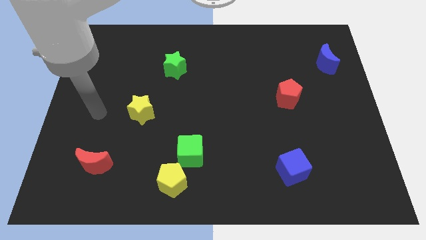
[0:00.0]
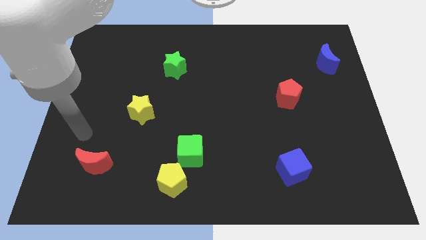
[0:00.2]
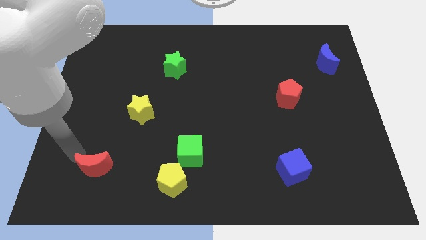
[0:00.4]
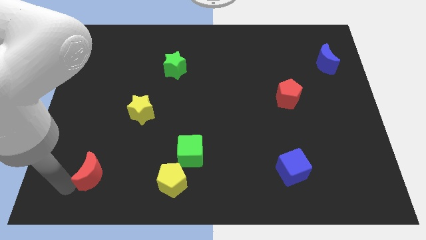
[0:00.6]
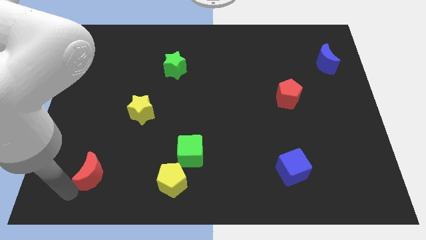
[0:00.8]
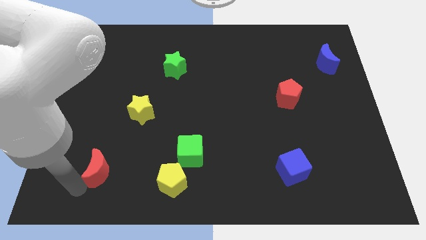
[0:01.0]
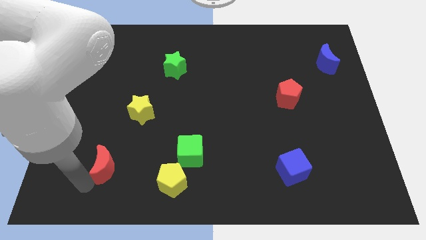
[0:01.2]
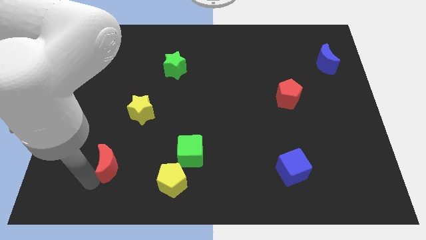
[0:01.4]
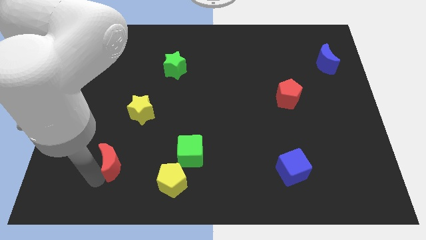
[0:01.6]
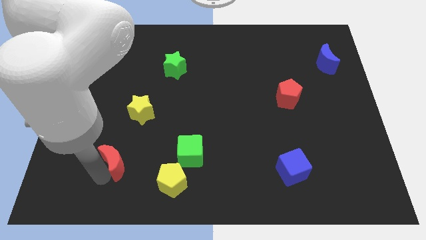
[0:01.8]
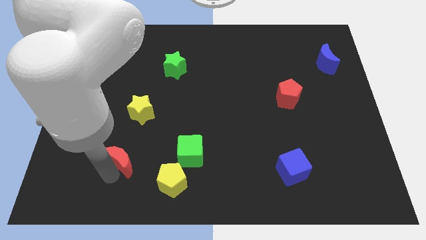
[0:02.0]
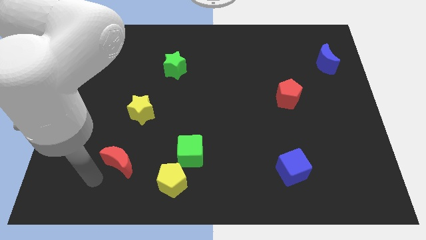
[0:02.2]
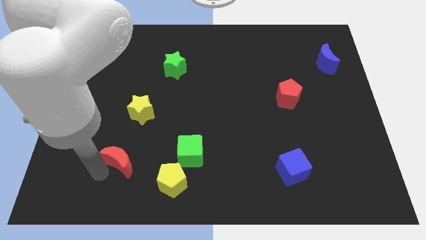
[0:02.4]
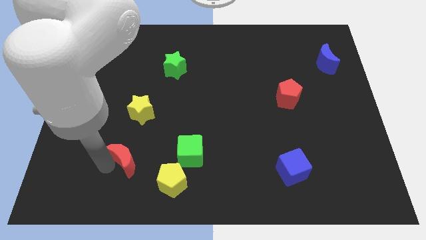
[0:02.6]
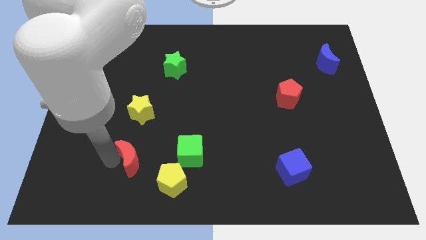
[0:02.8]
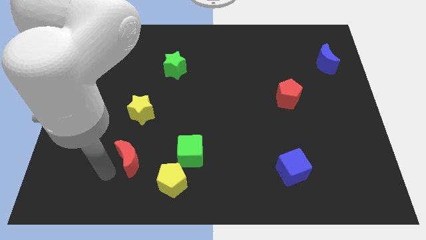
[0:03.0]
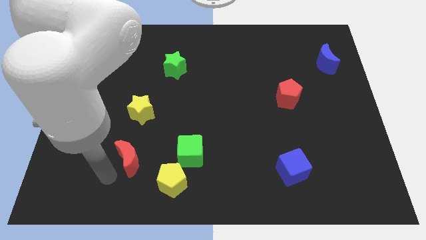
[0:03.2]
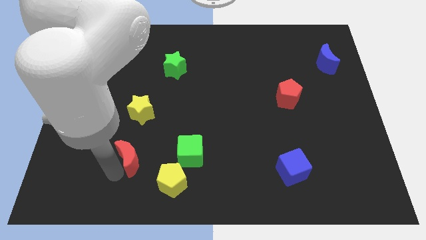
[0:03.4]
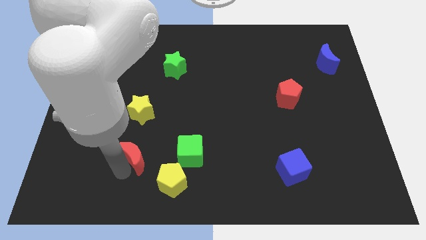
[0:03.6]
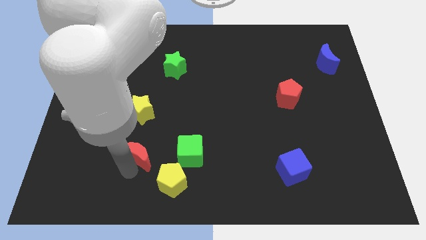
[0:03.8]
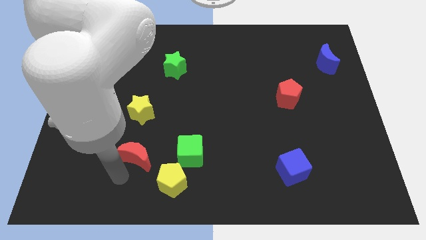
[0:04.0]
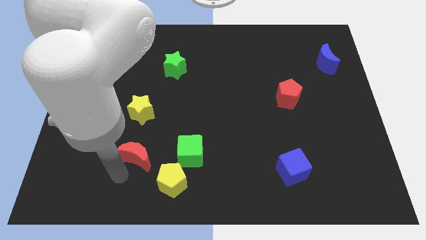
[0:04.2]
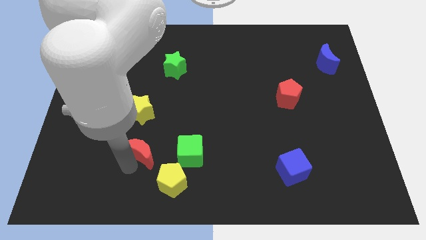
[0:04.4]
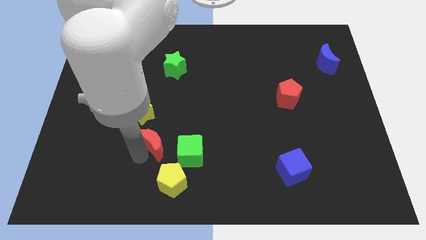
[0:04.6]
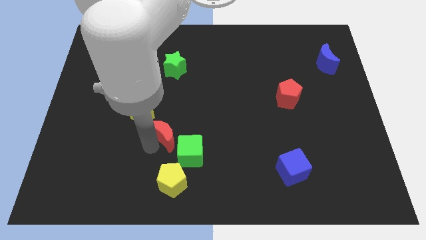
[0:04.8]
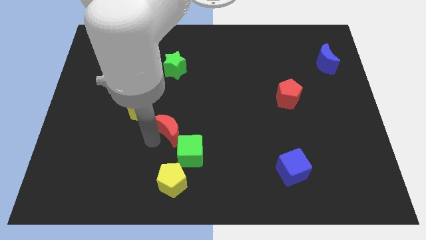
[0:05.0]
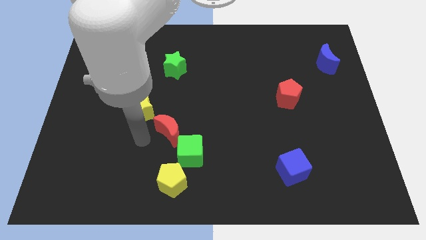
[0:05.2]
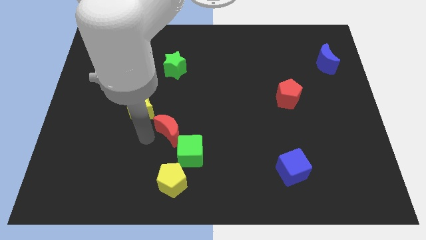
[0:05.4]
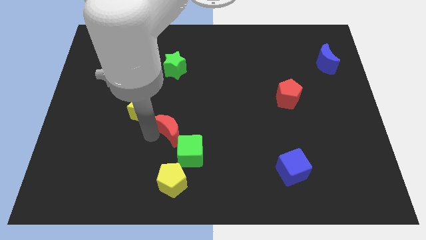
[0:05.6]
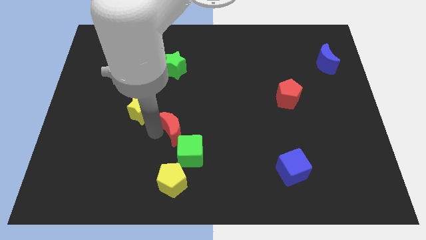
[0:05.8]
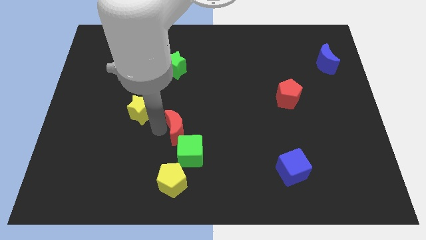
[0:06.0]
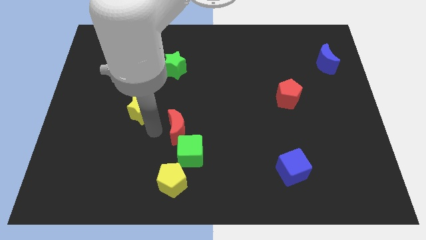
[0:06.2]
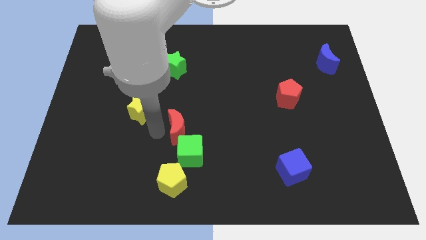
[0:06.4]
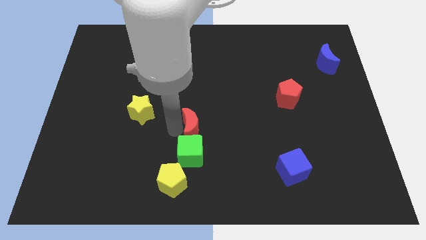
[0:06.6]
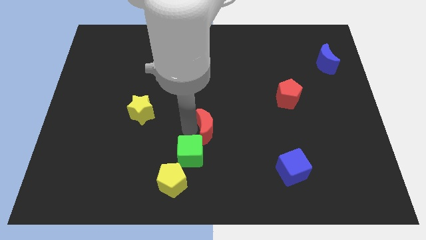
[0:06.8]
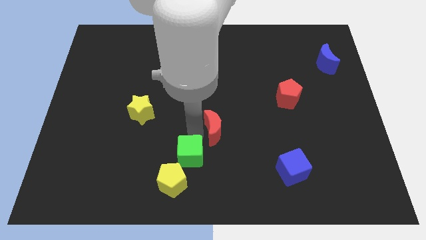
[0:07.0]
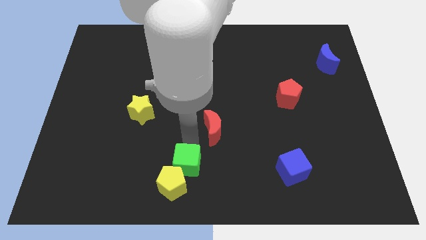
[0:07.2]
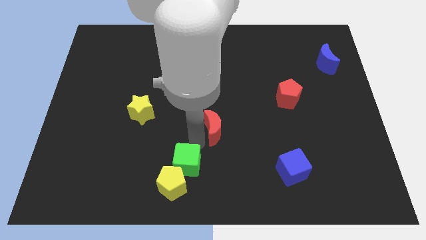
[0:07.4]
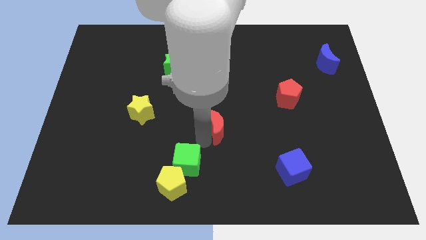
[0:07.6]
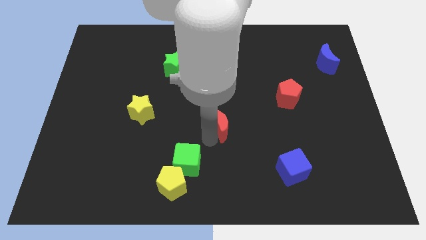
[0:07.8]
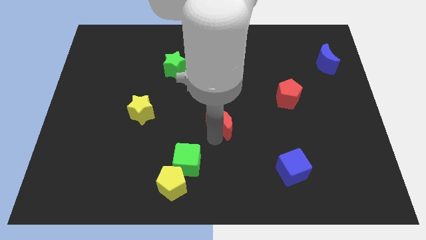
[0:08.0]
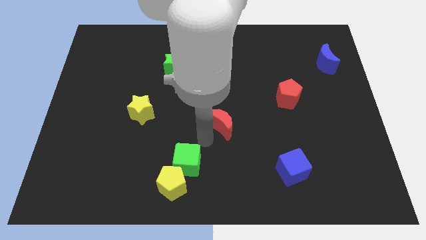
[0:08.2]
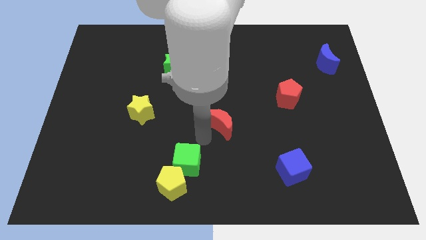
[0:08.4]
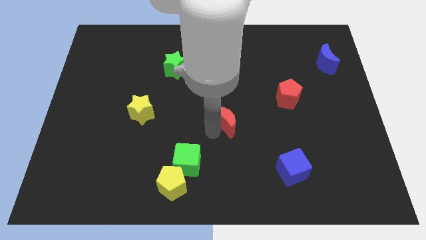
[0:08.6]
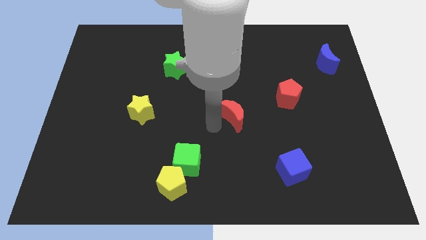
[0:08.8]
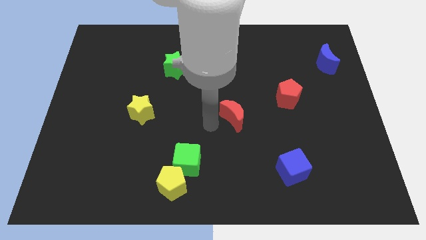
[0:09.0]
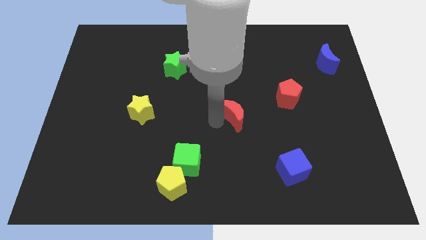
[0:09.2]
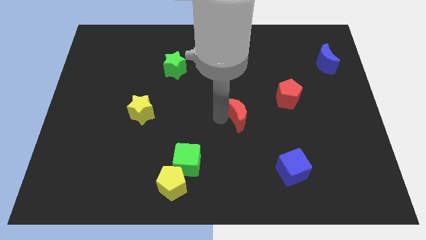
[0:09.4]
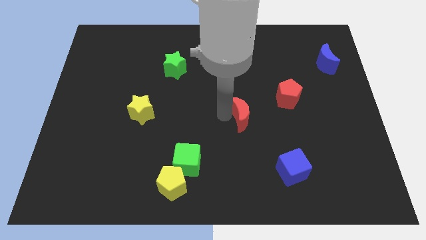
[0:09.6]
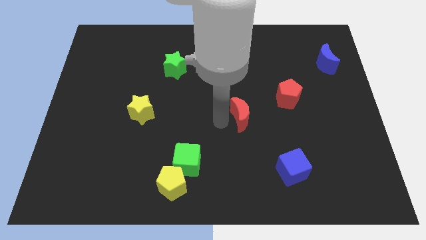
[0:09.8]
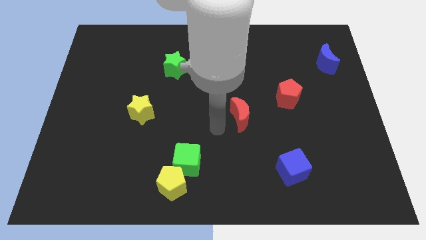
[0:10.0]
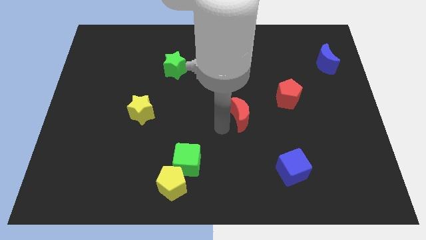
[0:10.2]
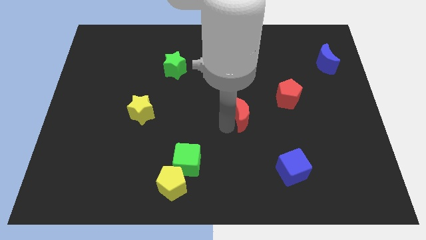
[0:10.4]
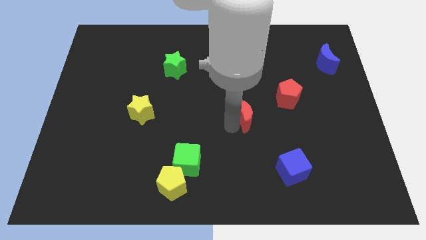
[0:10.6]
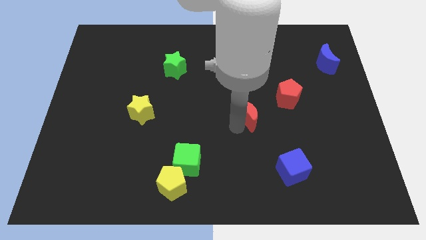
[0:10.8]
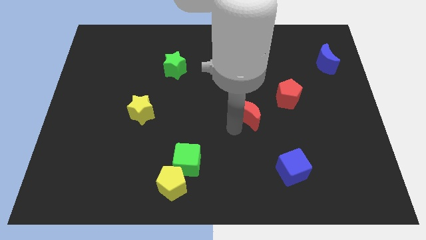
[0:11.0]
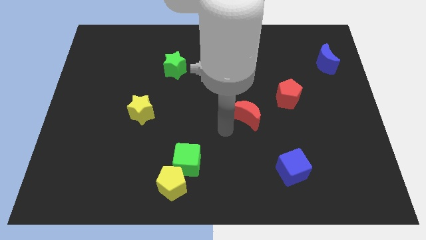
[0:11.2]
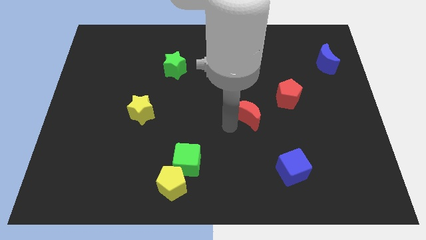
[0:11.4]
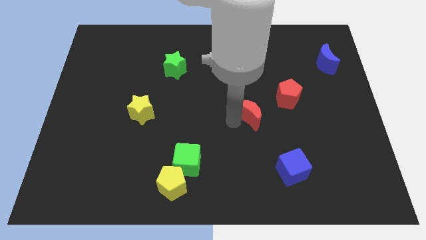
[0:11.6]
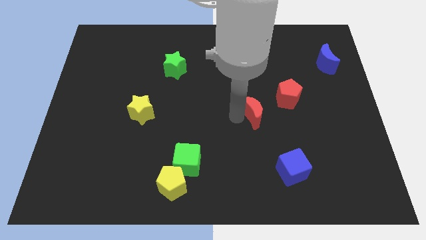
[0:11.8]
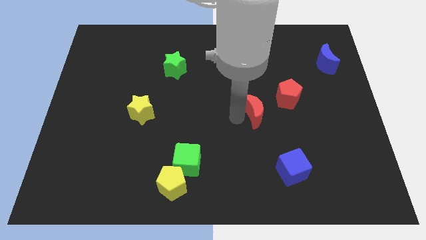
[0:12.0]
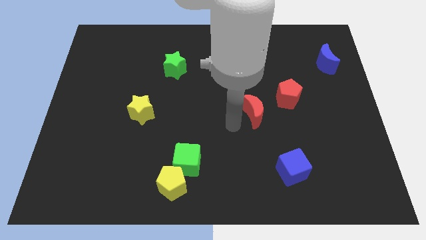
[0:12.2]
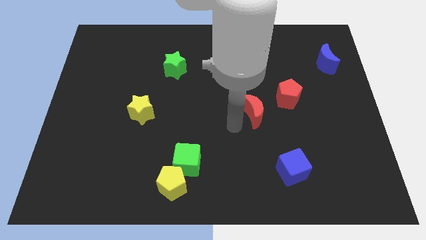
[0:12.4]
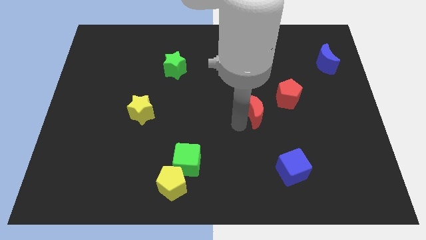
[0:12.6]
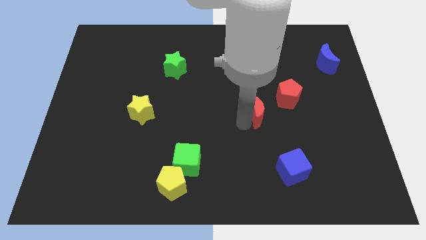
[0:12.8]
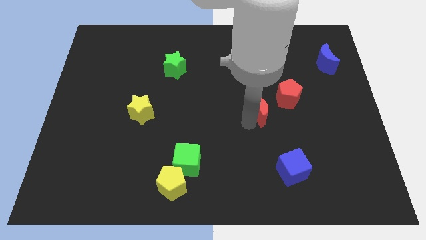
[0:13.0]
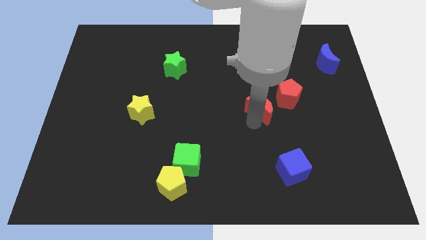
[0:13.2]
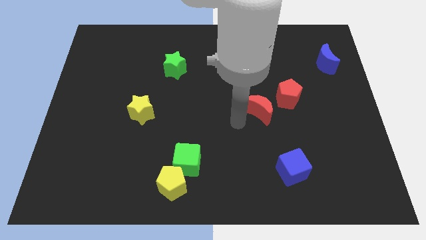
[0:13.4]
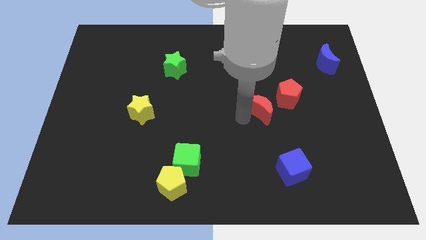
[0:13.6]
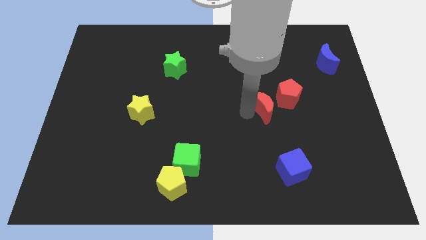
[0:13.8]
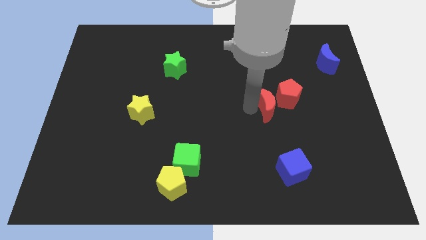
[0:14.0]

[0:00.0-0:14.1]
move the red moon towards the red pentagon
